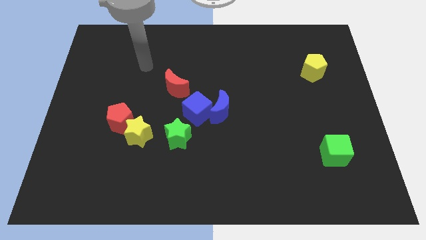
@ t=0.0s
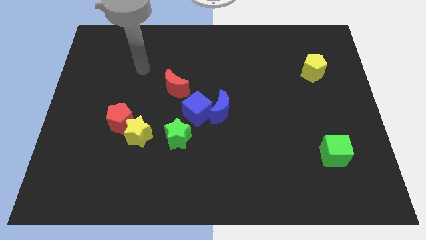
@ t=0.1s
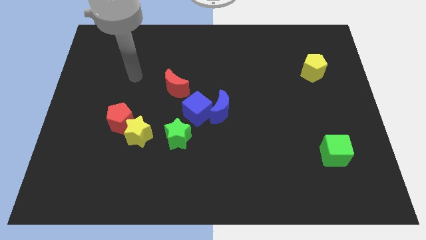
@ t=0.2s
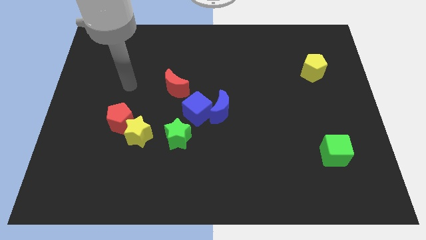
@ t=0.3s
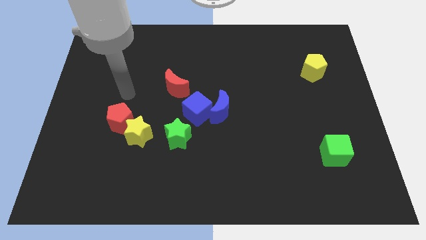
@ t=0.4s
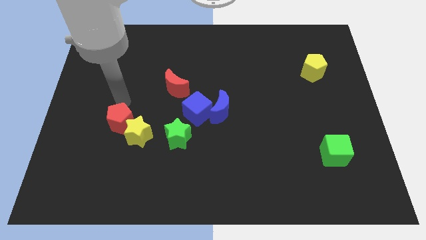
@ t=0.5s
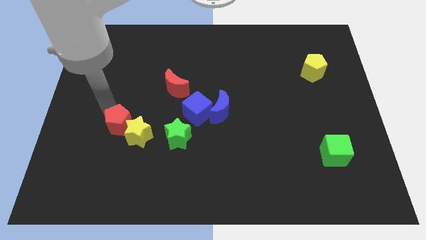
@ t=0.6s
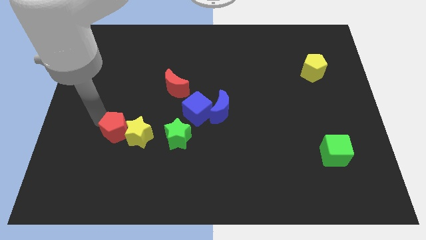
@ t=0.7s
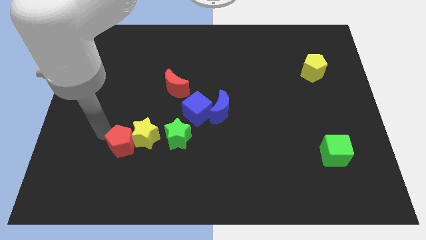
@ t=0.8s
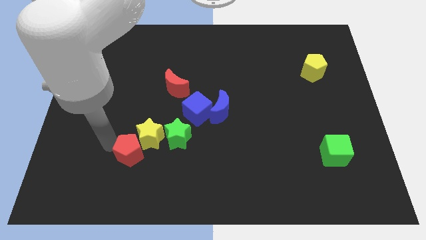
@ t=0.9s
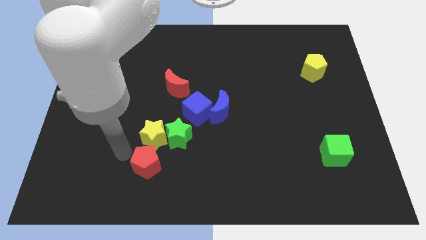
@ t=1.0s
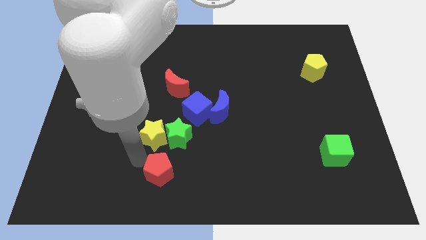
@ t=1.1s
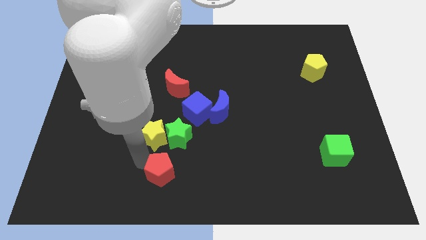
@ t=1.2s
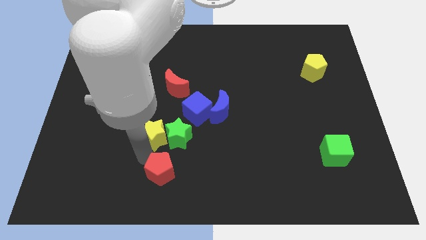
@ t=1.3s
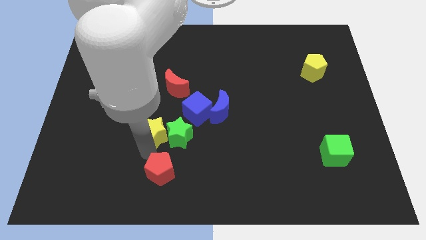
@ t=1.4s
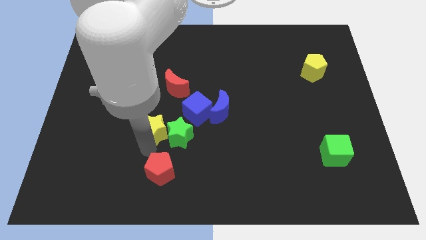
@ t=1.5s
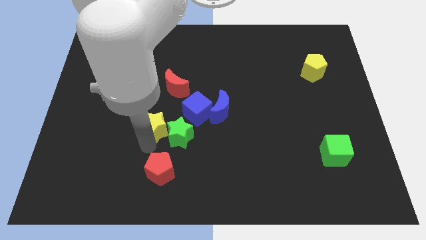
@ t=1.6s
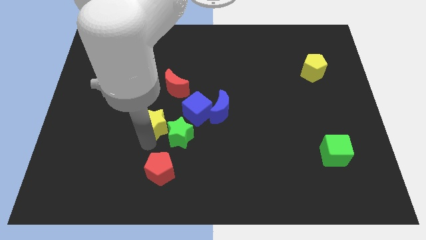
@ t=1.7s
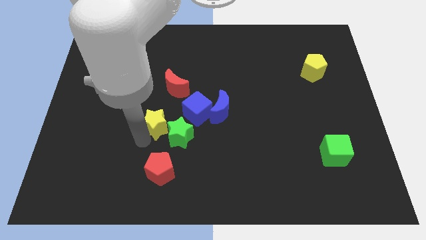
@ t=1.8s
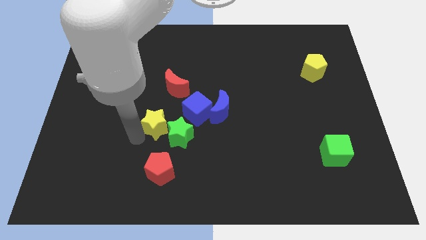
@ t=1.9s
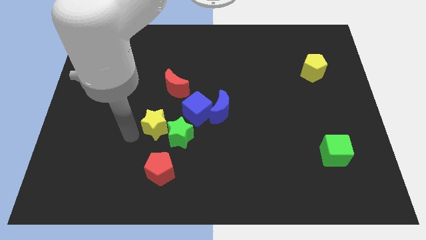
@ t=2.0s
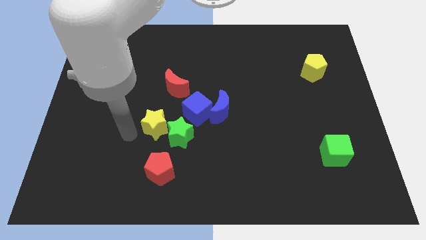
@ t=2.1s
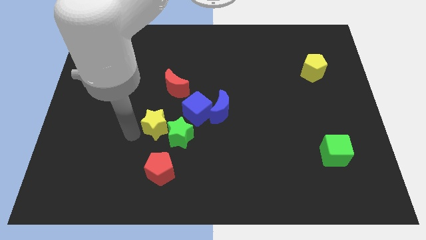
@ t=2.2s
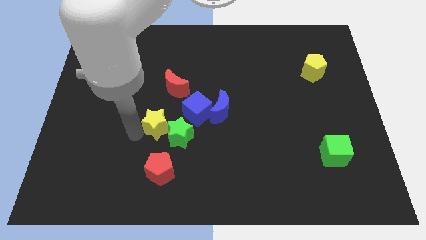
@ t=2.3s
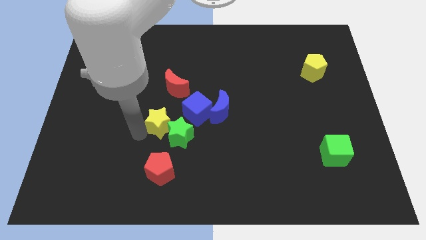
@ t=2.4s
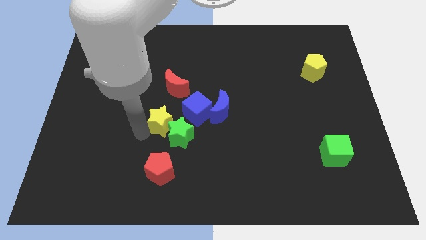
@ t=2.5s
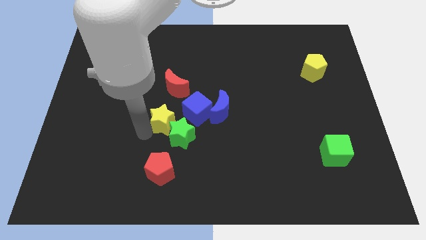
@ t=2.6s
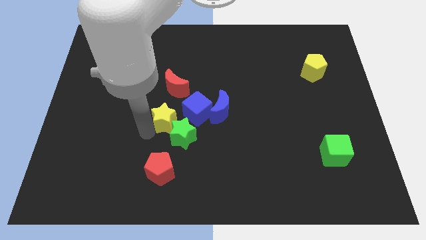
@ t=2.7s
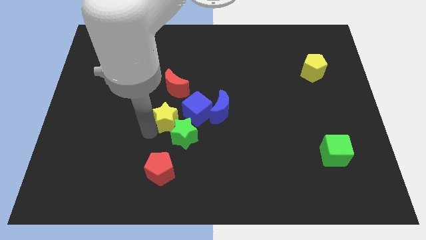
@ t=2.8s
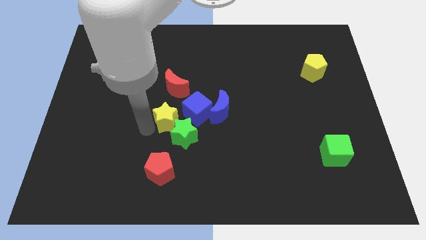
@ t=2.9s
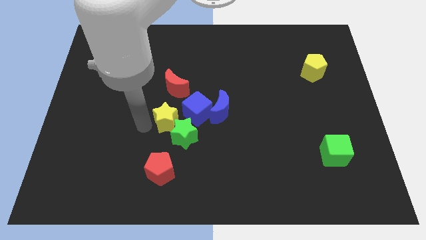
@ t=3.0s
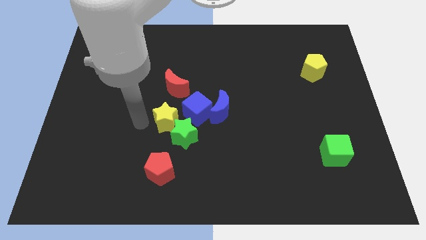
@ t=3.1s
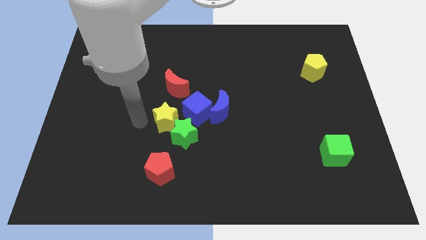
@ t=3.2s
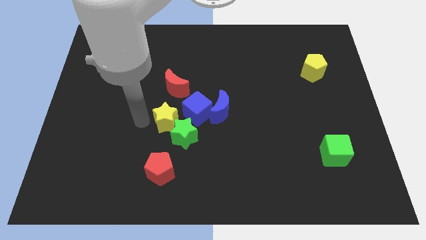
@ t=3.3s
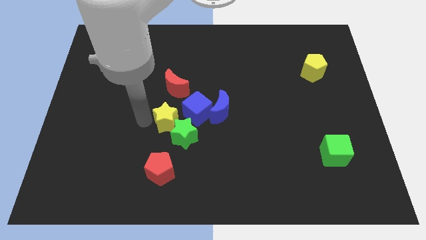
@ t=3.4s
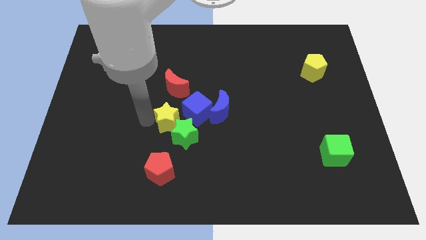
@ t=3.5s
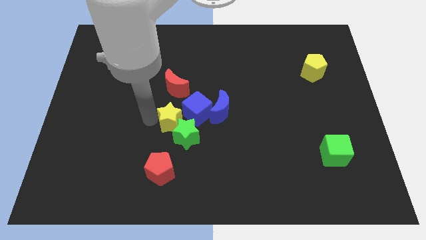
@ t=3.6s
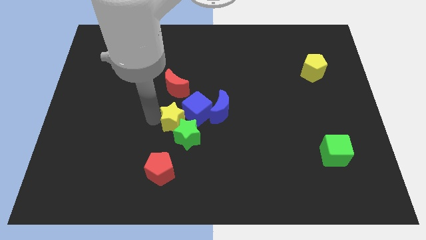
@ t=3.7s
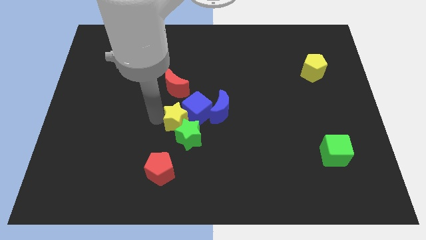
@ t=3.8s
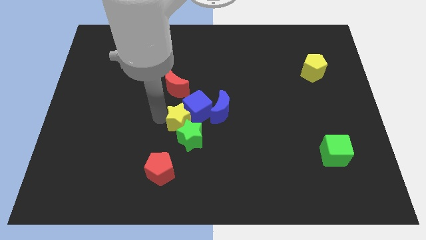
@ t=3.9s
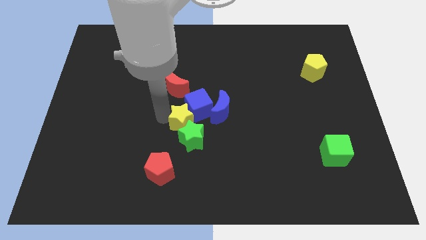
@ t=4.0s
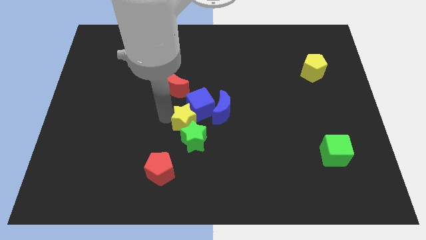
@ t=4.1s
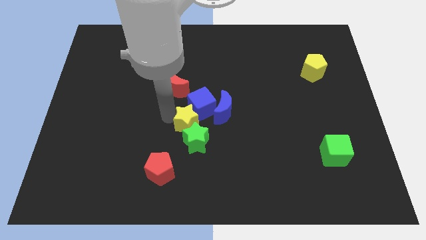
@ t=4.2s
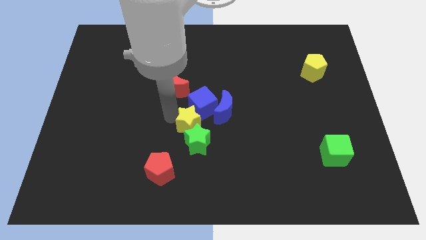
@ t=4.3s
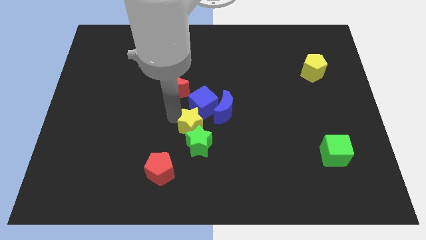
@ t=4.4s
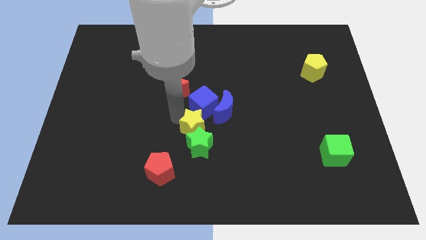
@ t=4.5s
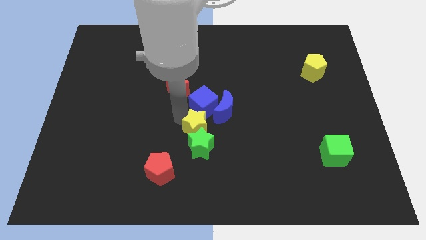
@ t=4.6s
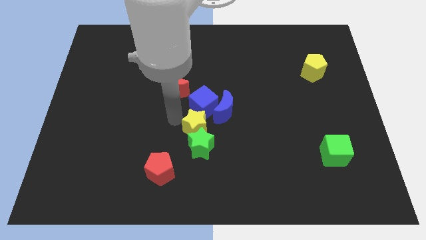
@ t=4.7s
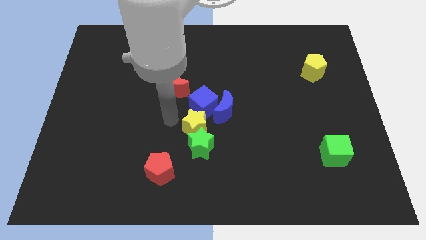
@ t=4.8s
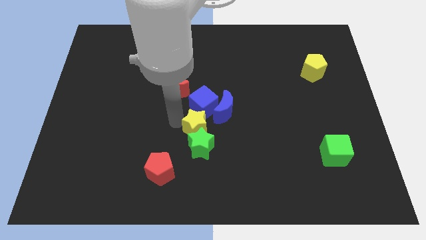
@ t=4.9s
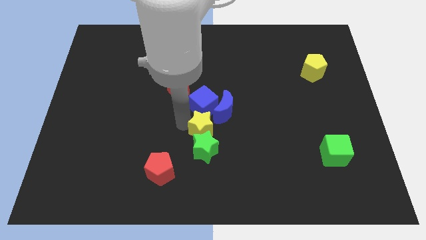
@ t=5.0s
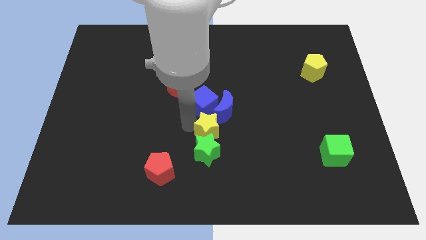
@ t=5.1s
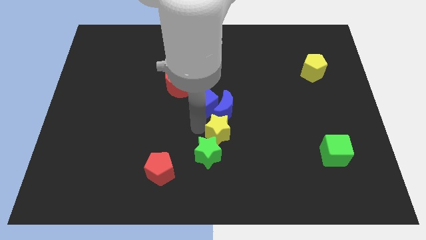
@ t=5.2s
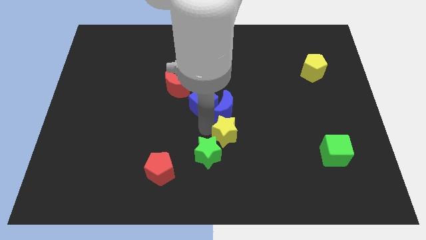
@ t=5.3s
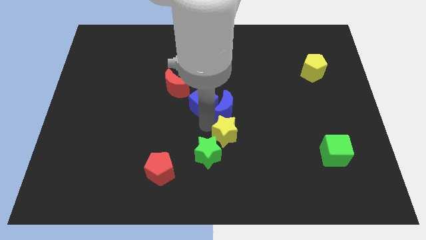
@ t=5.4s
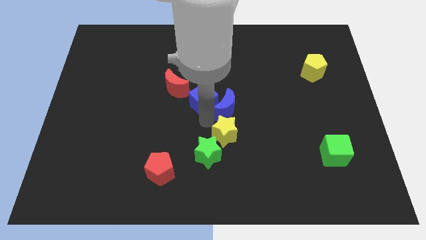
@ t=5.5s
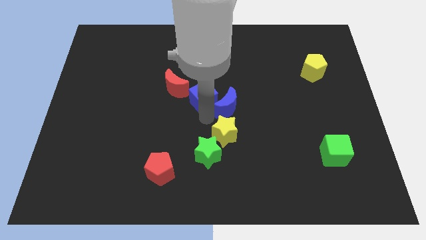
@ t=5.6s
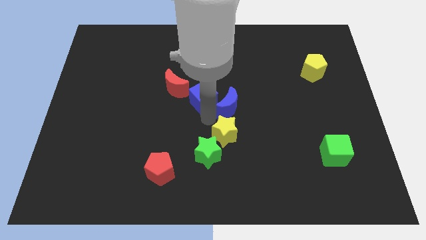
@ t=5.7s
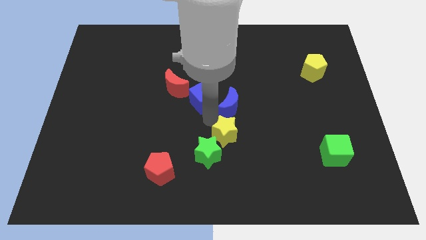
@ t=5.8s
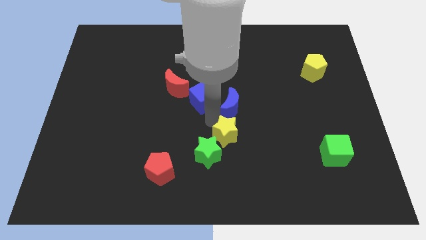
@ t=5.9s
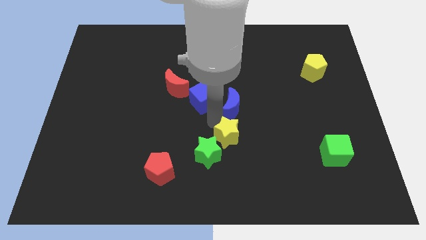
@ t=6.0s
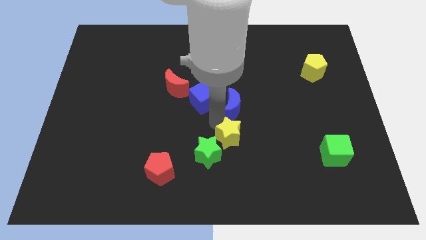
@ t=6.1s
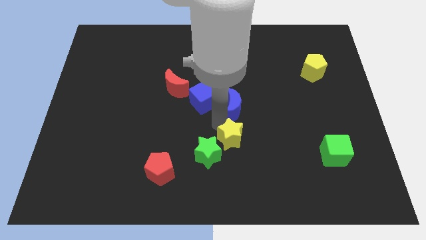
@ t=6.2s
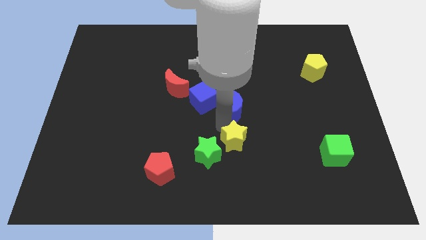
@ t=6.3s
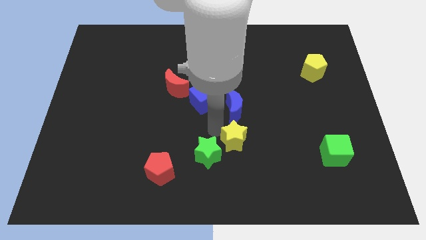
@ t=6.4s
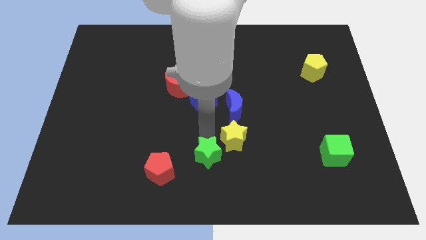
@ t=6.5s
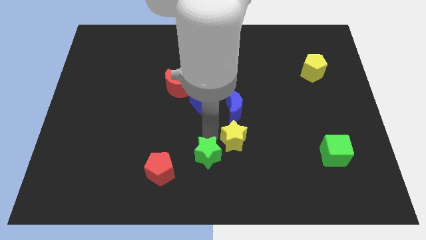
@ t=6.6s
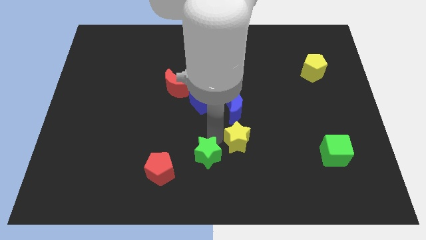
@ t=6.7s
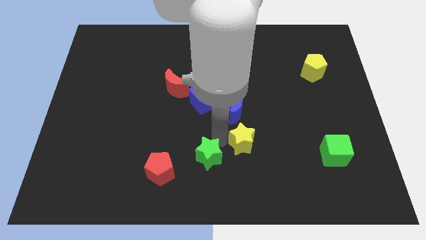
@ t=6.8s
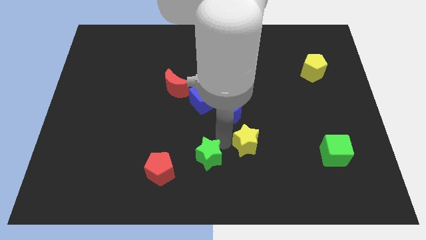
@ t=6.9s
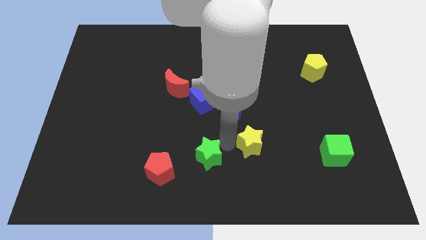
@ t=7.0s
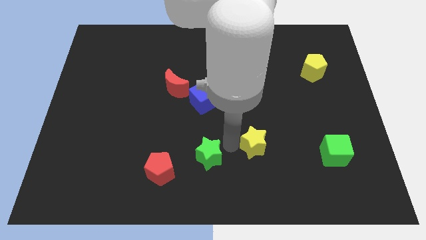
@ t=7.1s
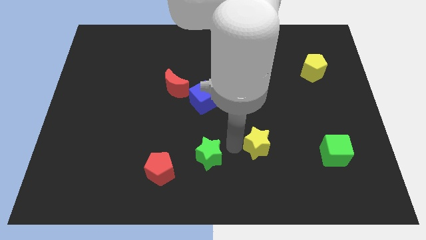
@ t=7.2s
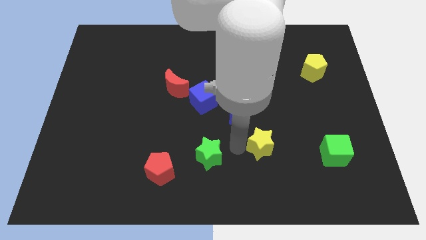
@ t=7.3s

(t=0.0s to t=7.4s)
move the yellow star to the left side of the green cube
